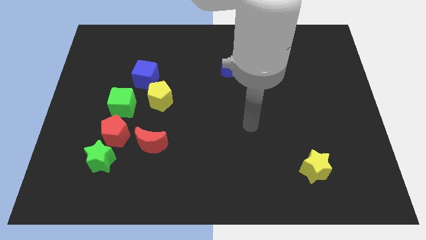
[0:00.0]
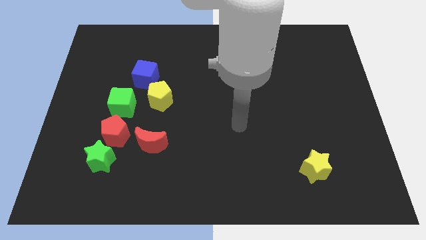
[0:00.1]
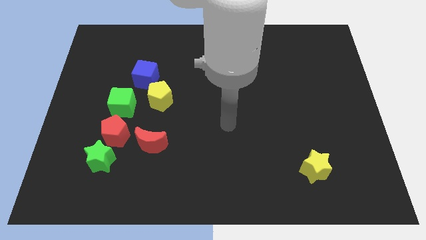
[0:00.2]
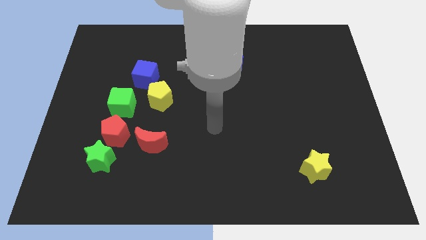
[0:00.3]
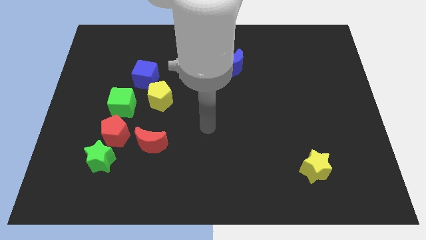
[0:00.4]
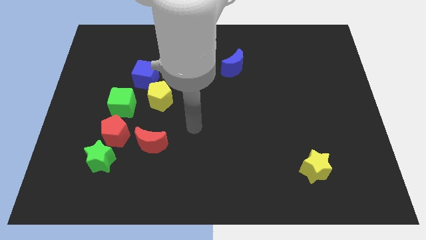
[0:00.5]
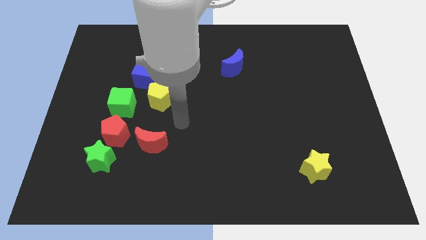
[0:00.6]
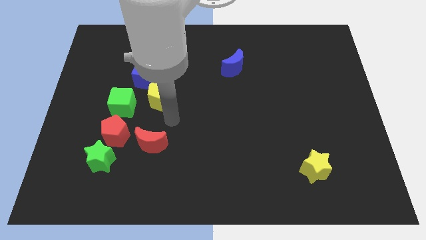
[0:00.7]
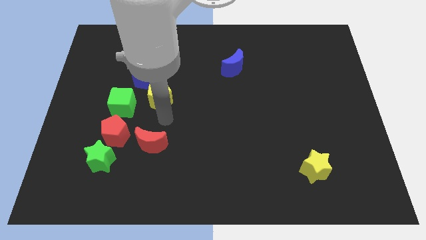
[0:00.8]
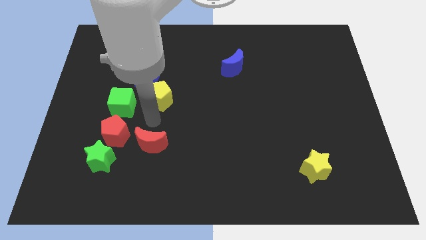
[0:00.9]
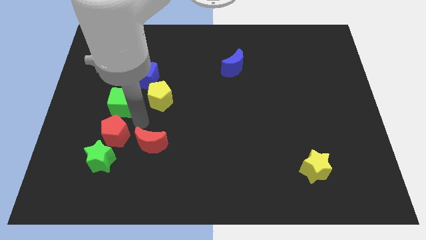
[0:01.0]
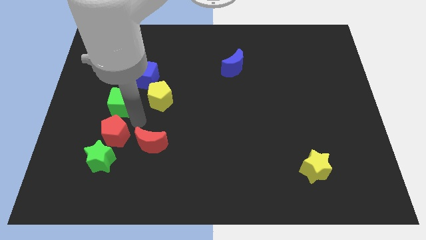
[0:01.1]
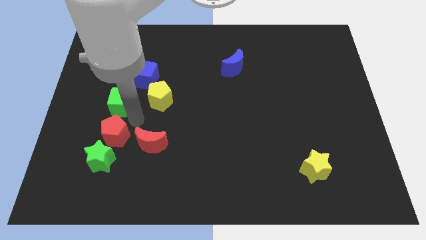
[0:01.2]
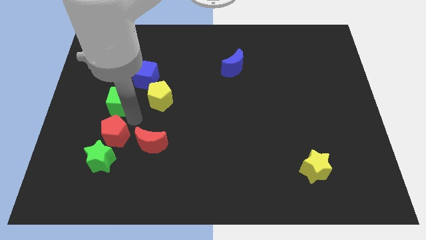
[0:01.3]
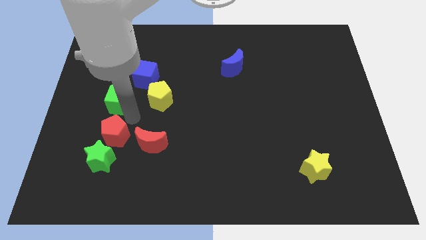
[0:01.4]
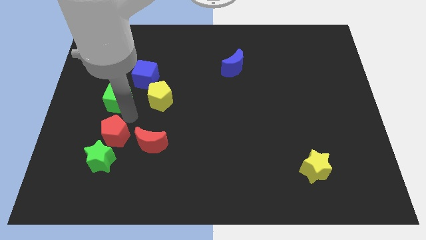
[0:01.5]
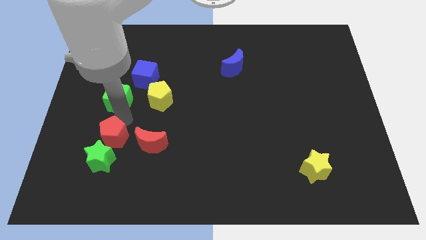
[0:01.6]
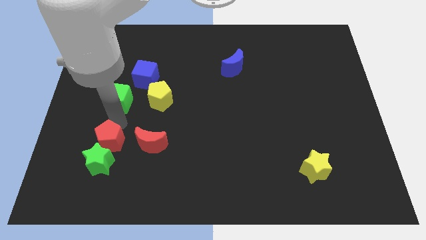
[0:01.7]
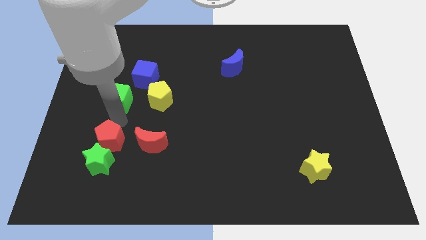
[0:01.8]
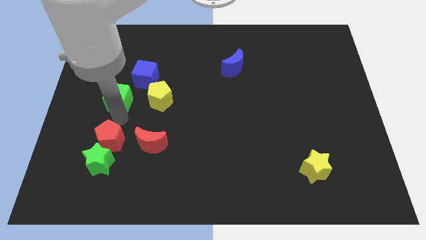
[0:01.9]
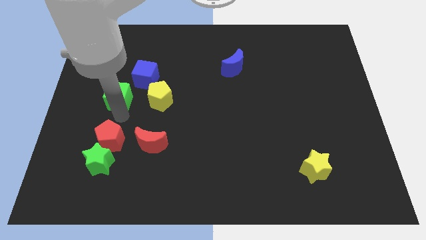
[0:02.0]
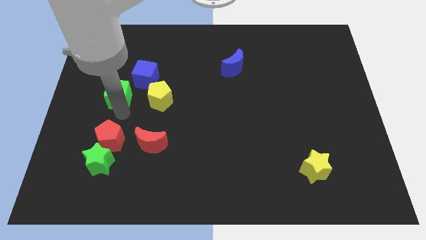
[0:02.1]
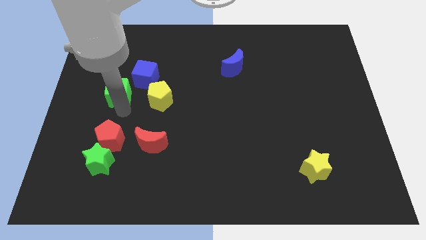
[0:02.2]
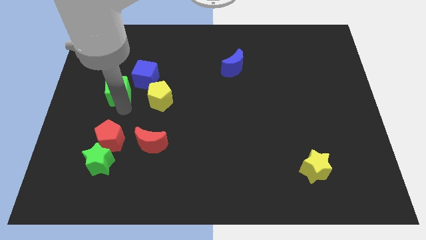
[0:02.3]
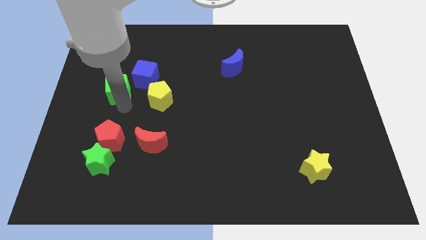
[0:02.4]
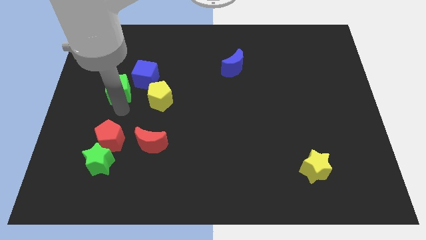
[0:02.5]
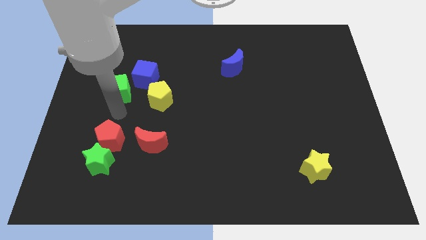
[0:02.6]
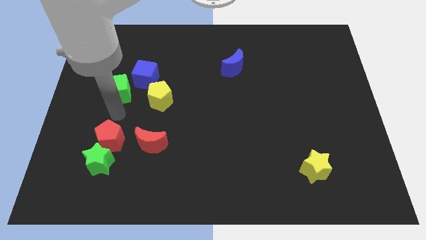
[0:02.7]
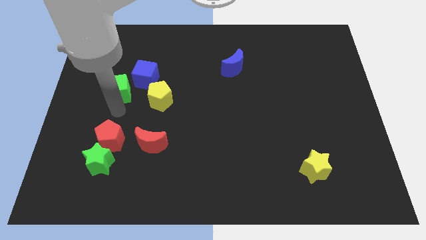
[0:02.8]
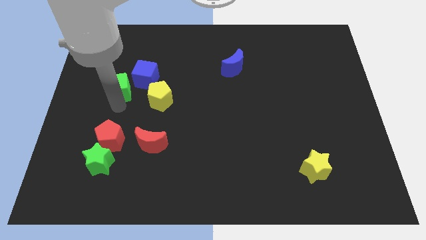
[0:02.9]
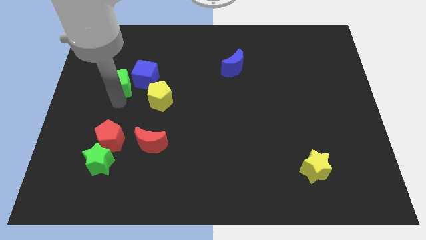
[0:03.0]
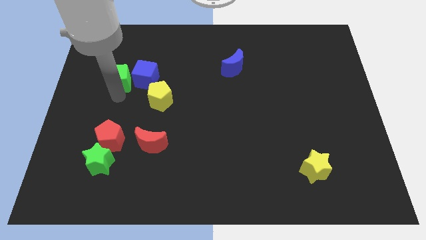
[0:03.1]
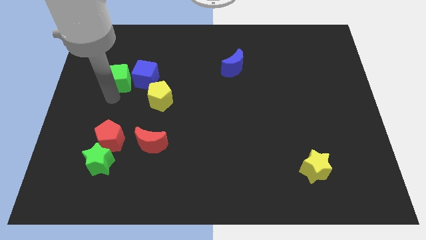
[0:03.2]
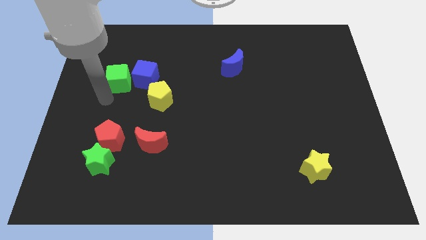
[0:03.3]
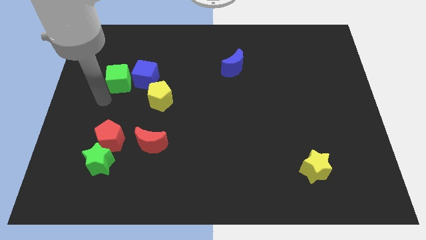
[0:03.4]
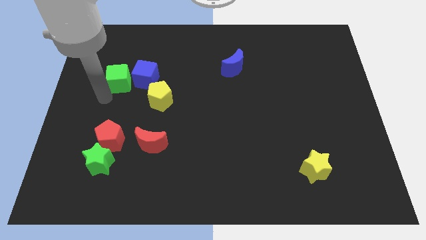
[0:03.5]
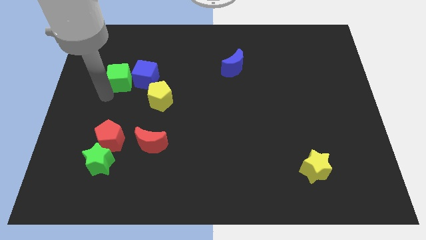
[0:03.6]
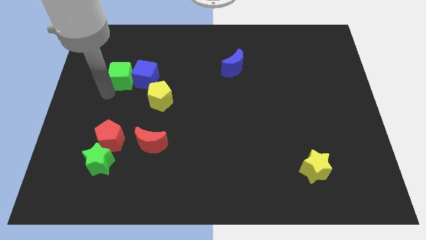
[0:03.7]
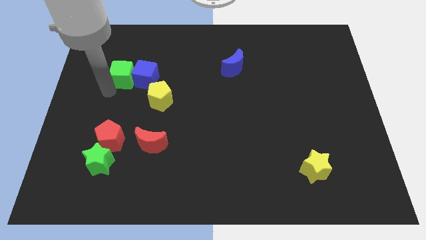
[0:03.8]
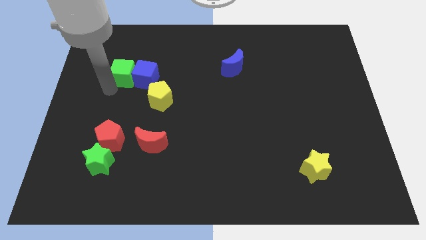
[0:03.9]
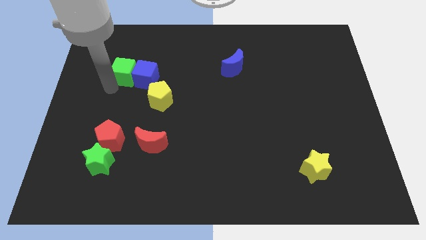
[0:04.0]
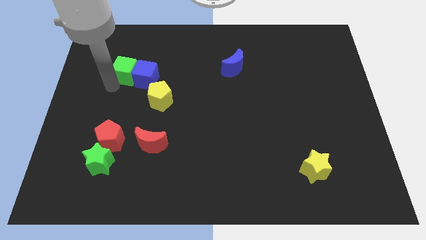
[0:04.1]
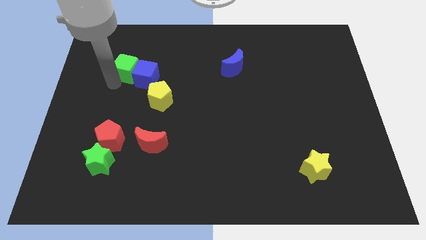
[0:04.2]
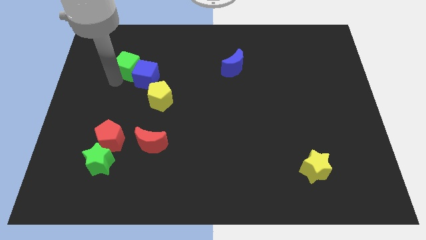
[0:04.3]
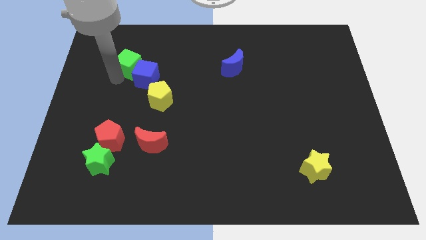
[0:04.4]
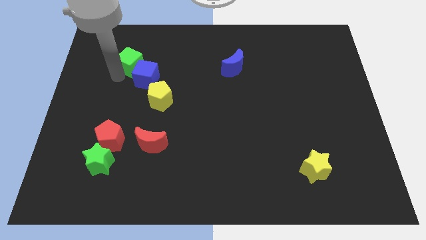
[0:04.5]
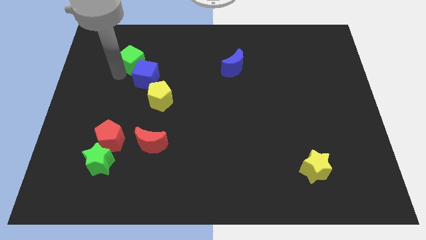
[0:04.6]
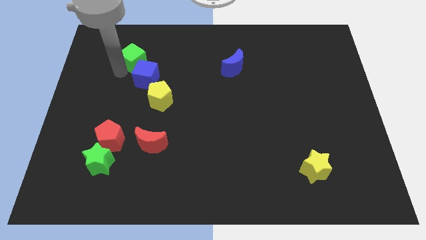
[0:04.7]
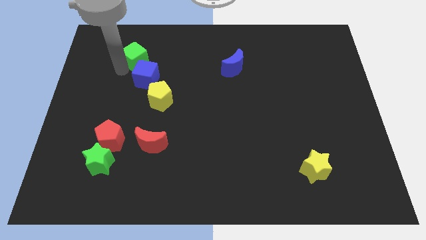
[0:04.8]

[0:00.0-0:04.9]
slightly move the green cube upwards and right diagonally

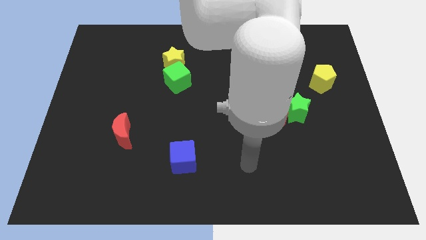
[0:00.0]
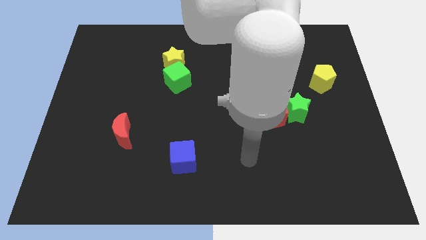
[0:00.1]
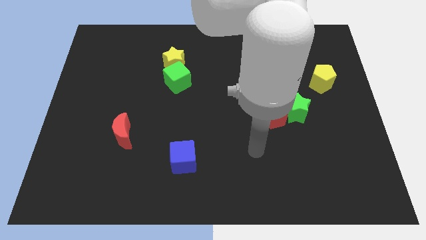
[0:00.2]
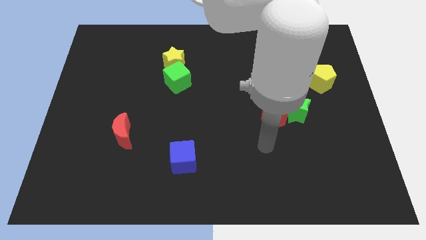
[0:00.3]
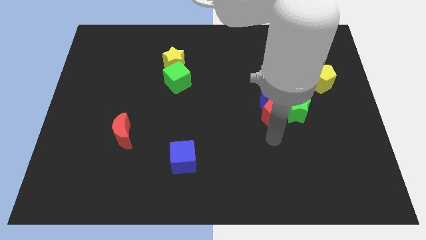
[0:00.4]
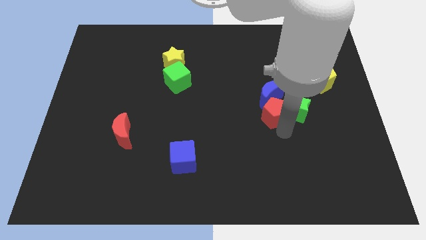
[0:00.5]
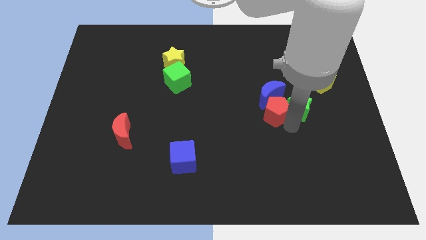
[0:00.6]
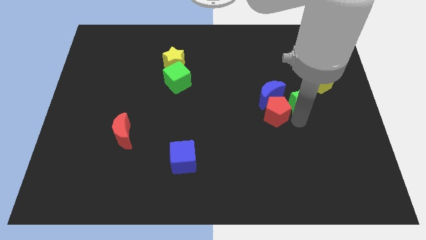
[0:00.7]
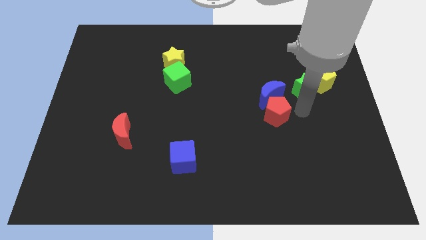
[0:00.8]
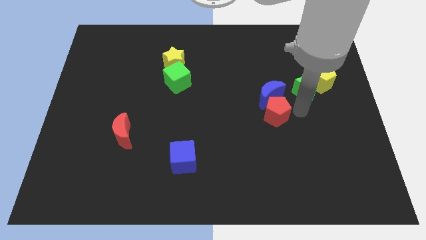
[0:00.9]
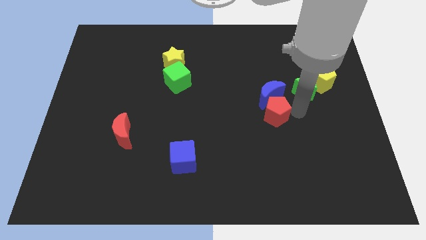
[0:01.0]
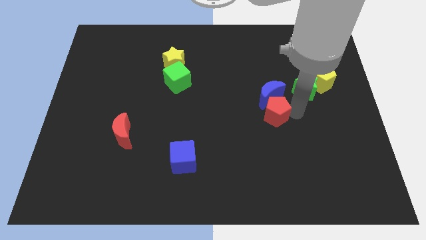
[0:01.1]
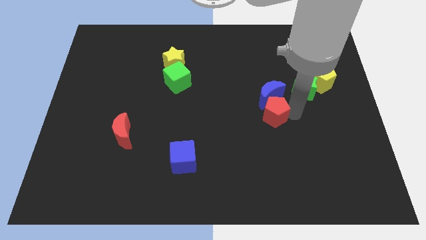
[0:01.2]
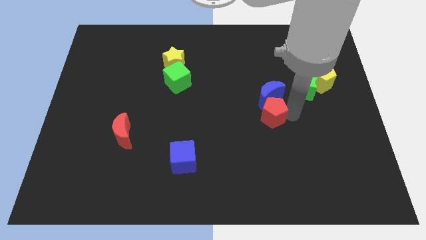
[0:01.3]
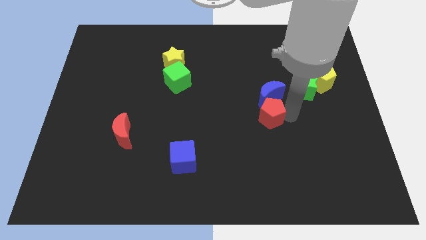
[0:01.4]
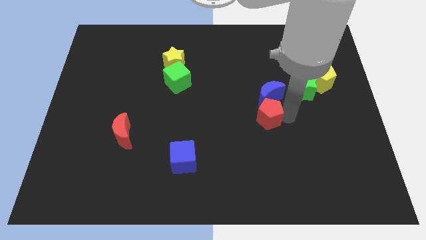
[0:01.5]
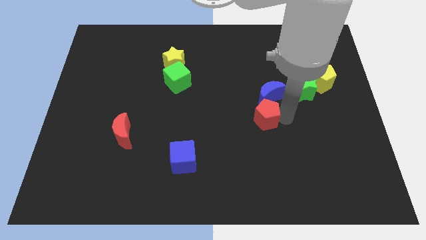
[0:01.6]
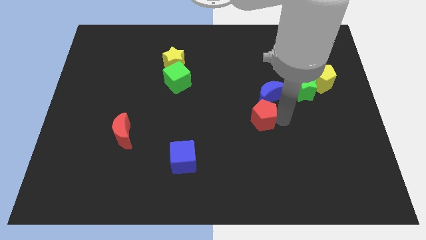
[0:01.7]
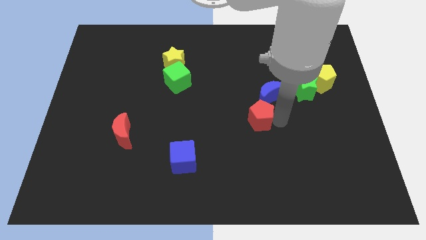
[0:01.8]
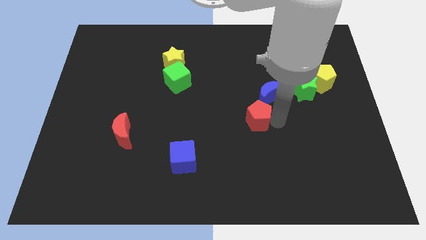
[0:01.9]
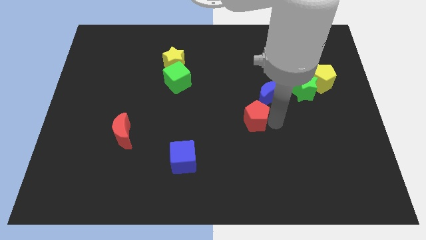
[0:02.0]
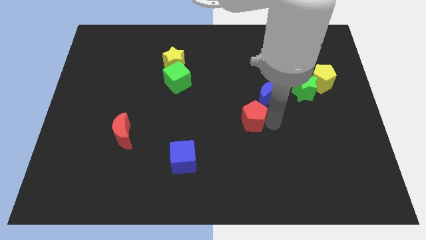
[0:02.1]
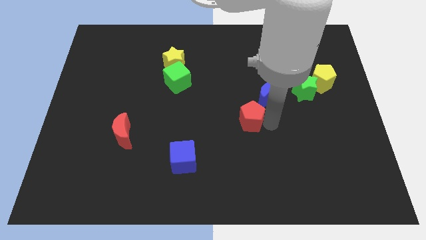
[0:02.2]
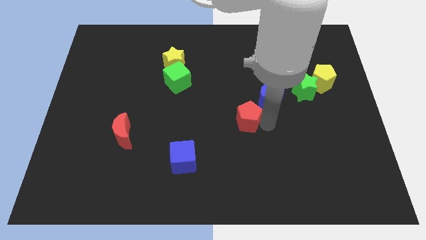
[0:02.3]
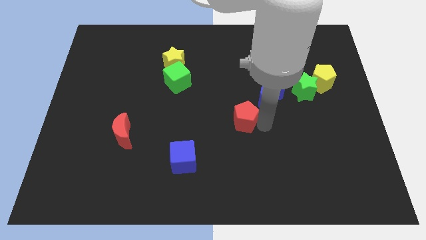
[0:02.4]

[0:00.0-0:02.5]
slide the red pentagon a little bit left

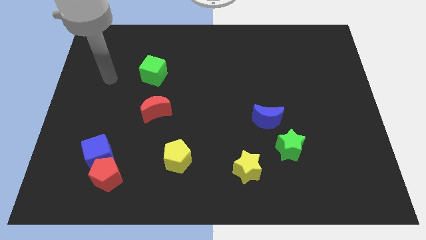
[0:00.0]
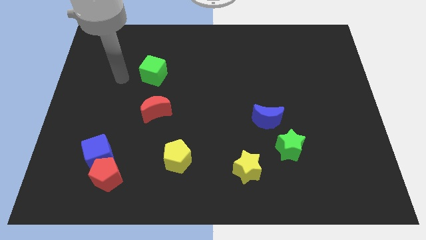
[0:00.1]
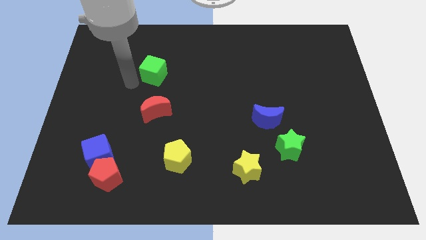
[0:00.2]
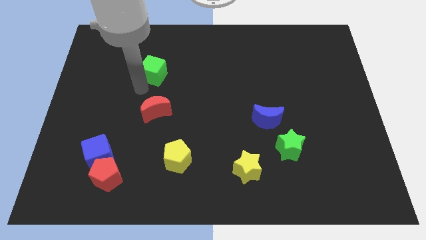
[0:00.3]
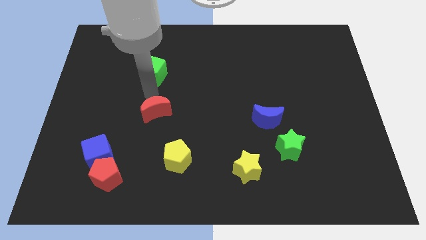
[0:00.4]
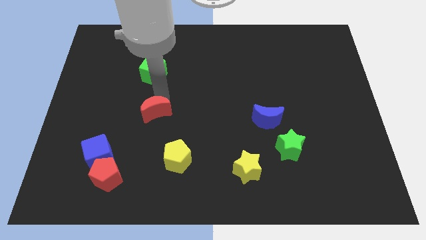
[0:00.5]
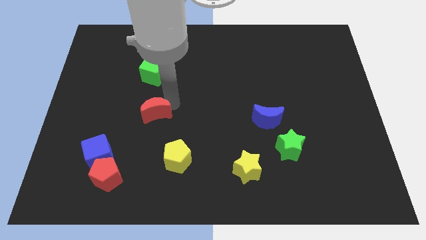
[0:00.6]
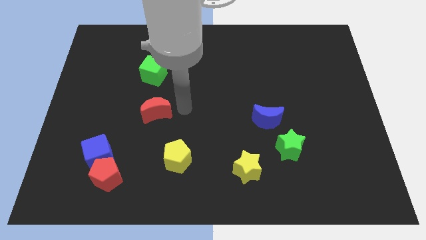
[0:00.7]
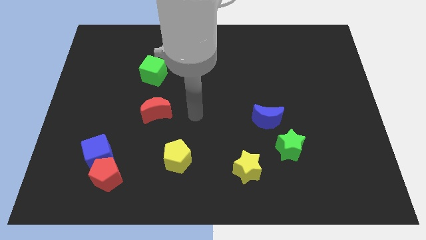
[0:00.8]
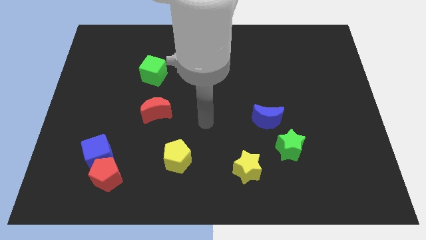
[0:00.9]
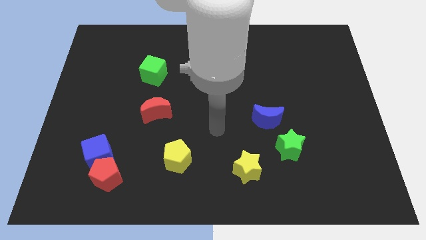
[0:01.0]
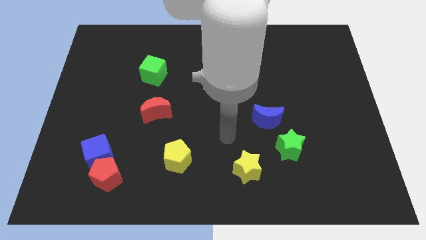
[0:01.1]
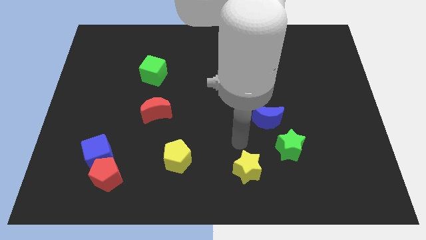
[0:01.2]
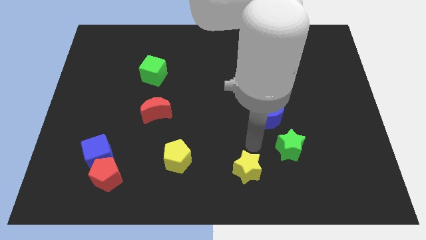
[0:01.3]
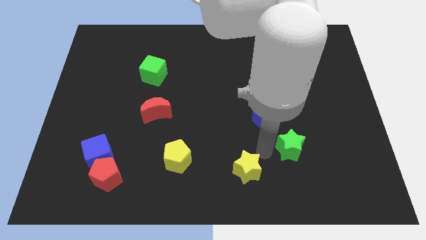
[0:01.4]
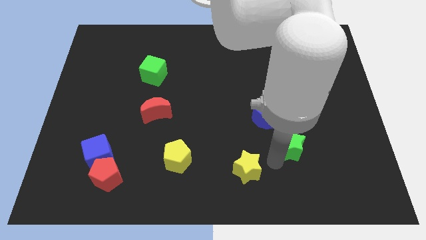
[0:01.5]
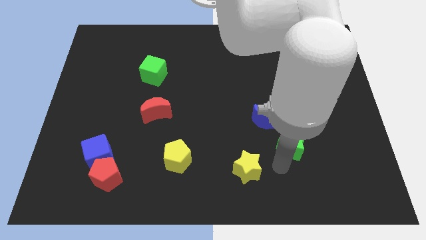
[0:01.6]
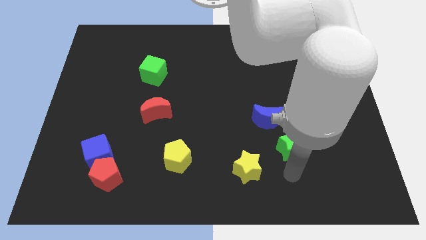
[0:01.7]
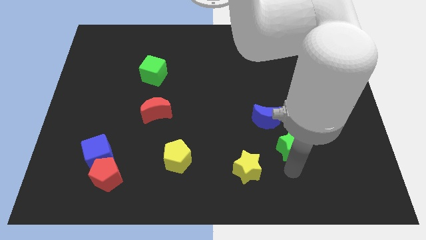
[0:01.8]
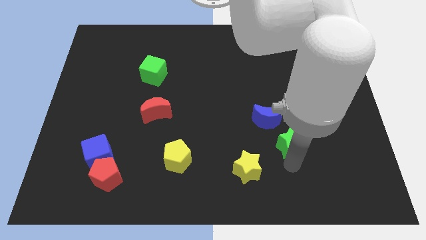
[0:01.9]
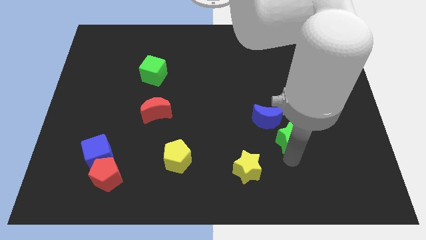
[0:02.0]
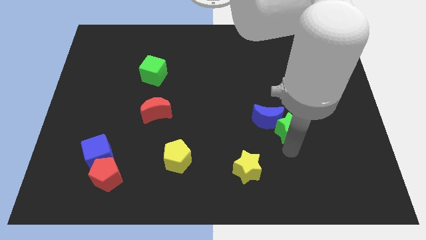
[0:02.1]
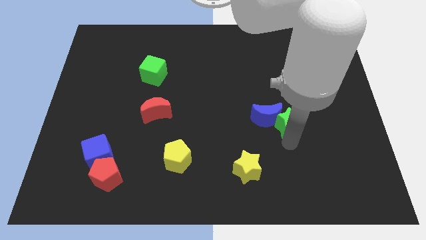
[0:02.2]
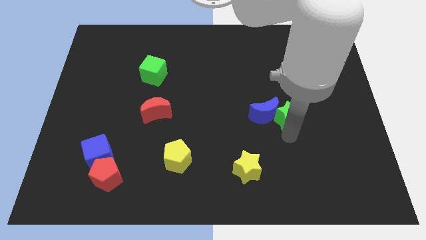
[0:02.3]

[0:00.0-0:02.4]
push the green star a little upwards
